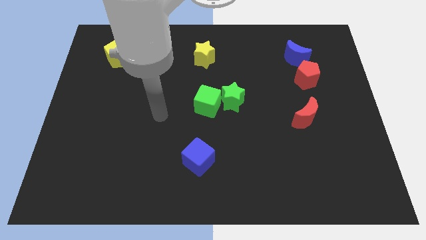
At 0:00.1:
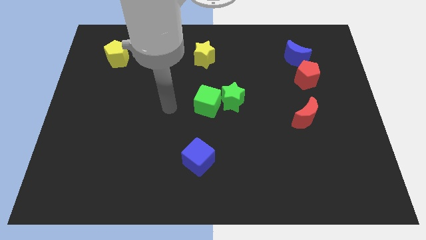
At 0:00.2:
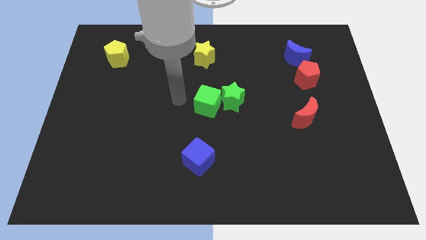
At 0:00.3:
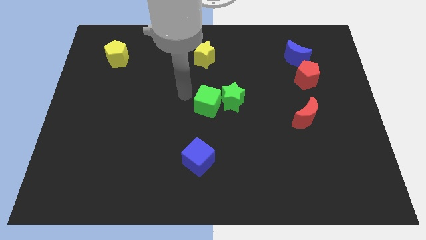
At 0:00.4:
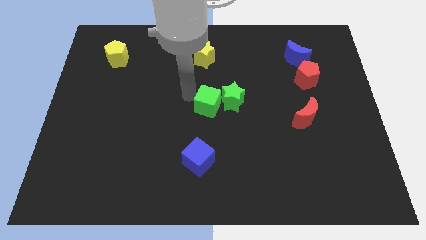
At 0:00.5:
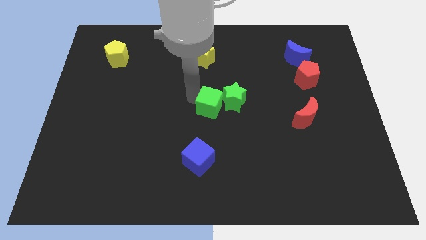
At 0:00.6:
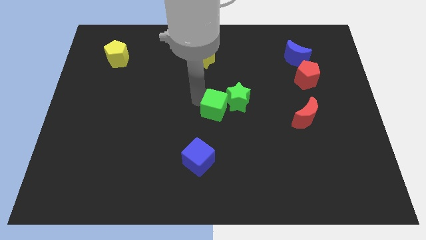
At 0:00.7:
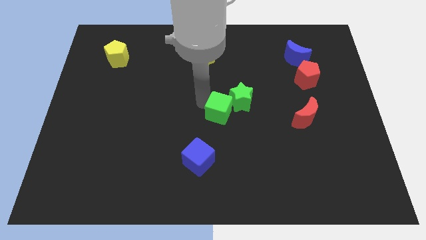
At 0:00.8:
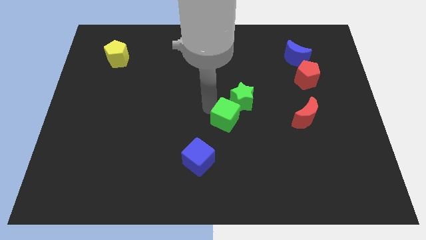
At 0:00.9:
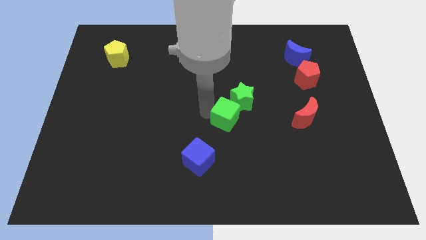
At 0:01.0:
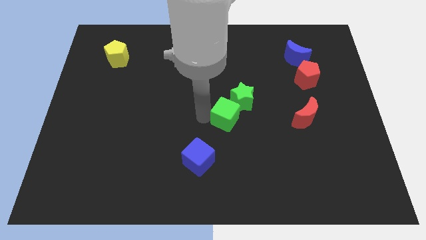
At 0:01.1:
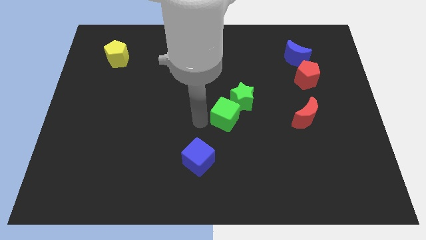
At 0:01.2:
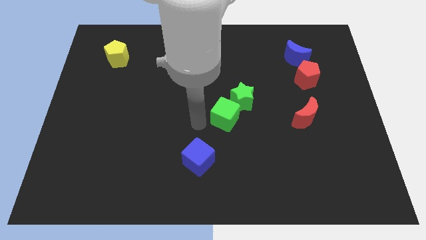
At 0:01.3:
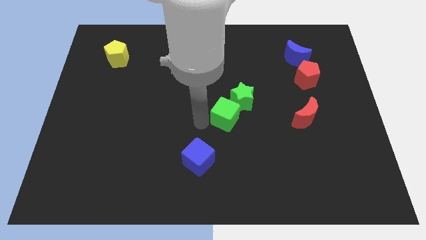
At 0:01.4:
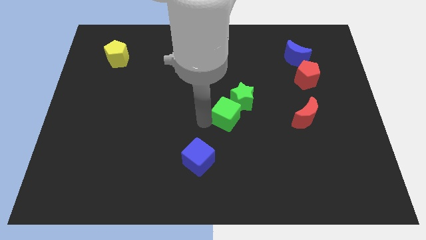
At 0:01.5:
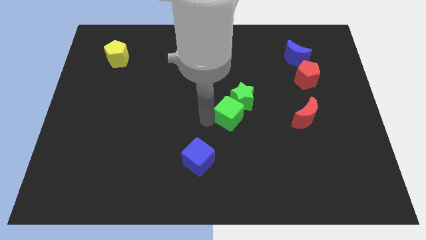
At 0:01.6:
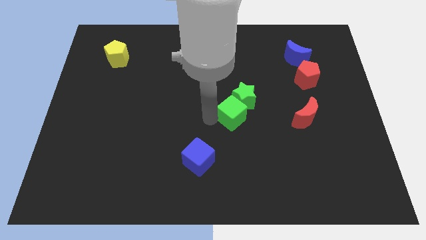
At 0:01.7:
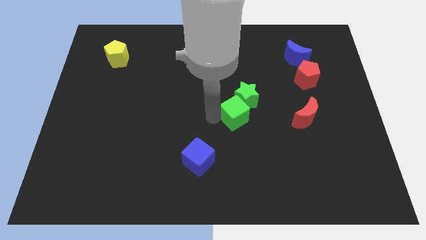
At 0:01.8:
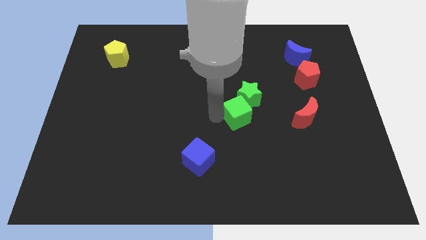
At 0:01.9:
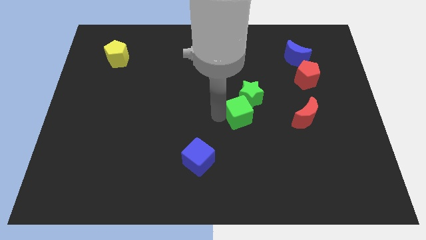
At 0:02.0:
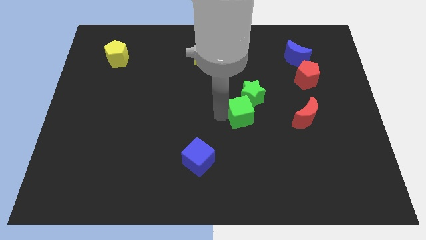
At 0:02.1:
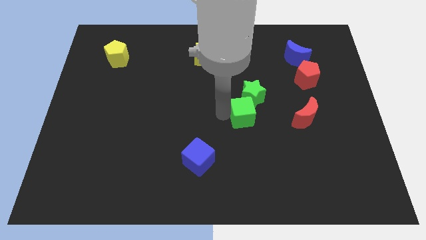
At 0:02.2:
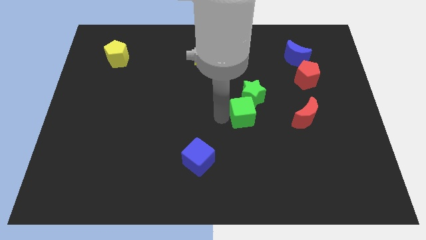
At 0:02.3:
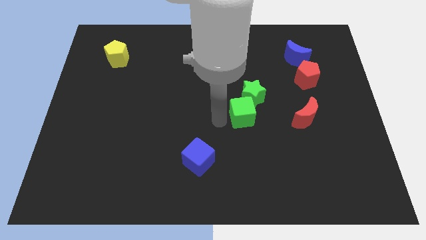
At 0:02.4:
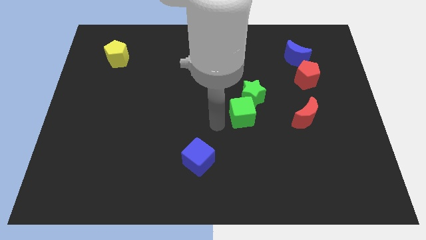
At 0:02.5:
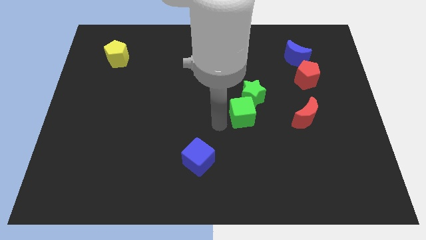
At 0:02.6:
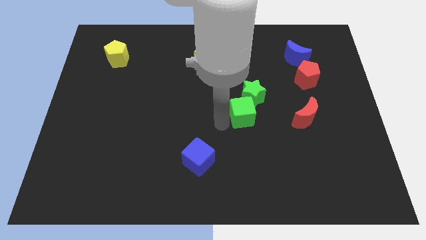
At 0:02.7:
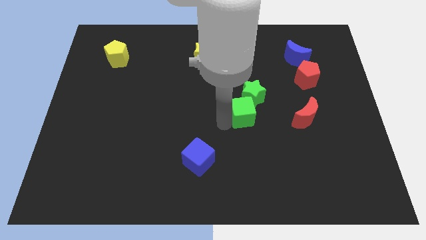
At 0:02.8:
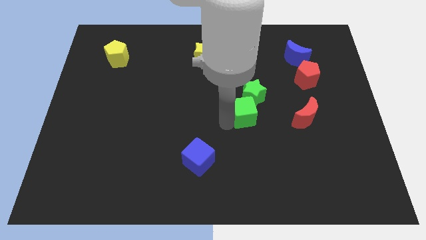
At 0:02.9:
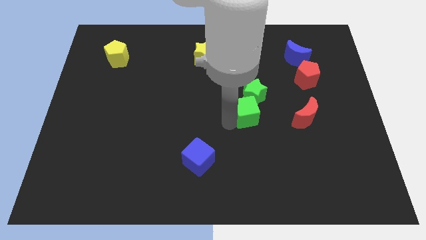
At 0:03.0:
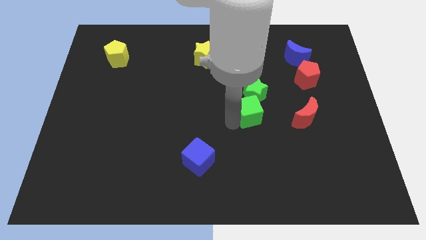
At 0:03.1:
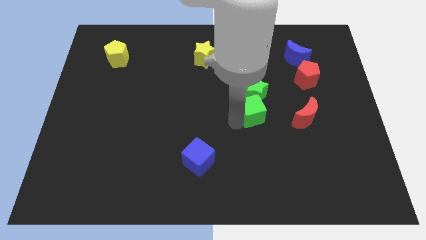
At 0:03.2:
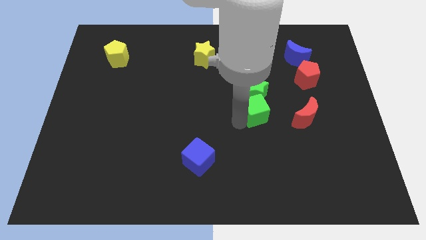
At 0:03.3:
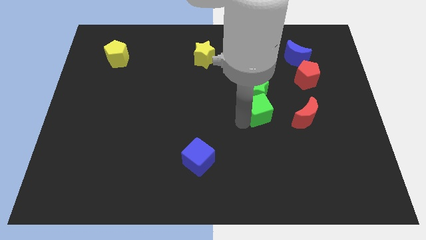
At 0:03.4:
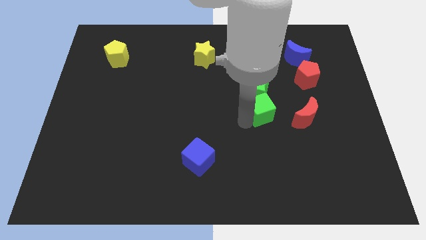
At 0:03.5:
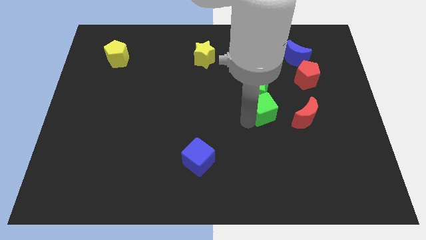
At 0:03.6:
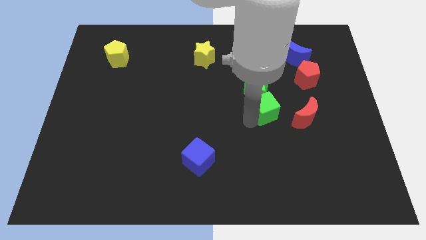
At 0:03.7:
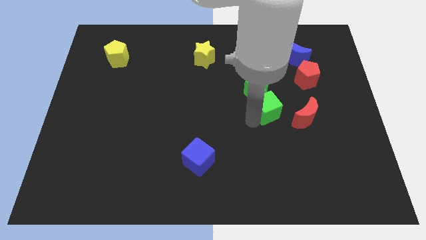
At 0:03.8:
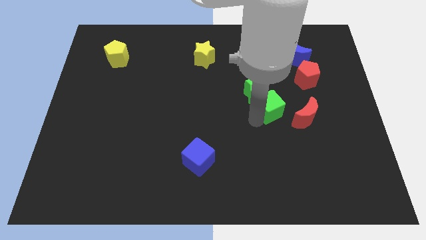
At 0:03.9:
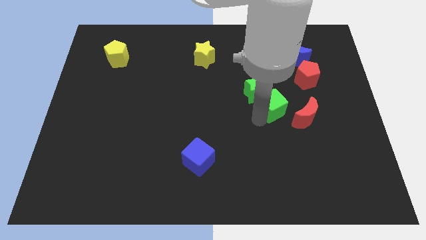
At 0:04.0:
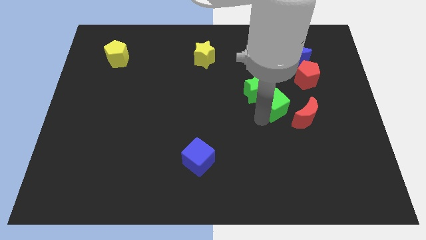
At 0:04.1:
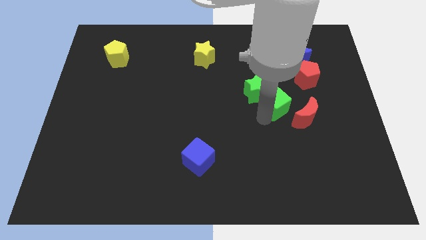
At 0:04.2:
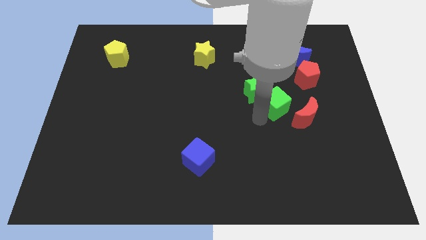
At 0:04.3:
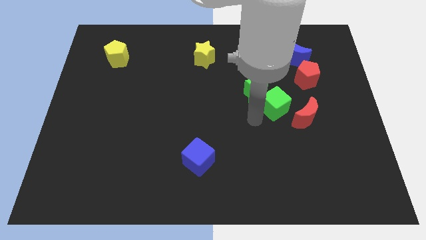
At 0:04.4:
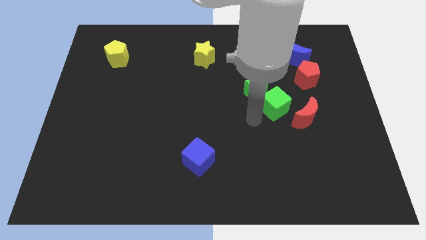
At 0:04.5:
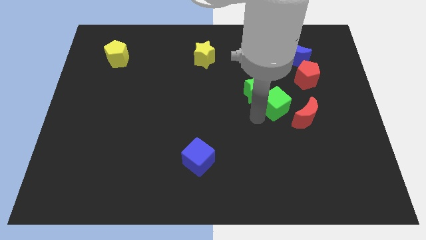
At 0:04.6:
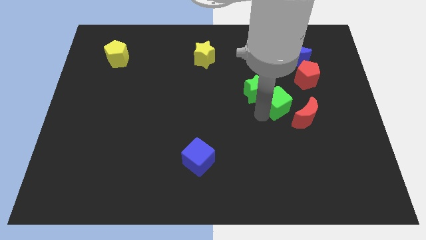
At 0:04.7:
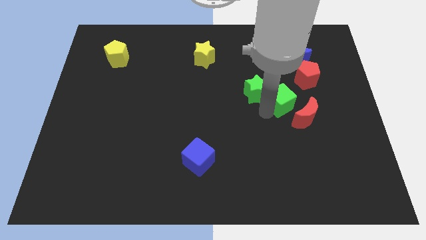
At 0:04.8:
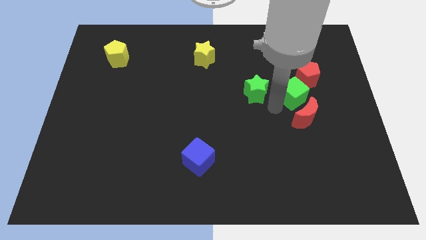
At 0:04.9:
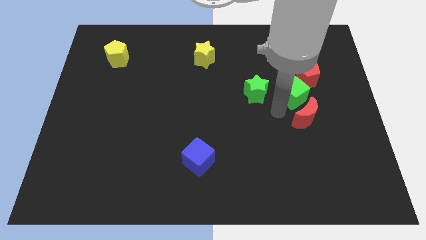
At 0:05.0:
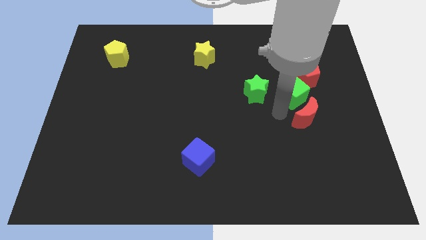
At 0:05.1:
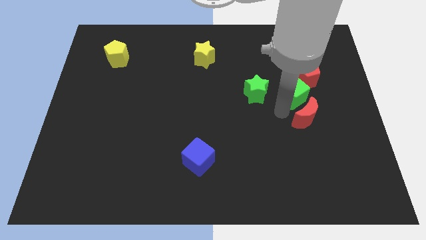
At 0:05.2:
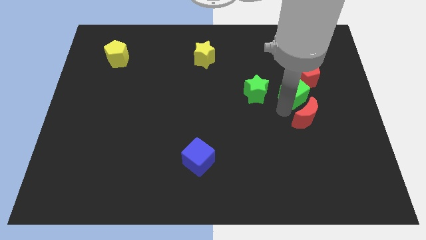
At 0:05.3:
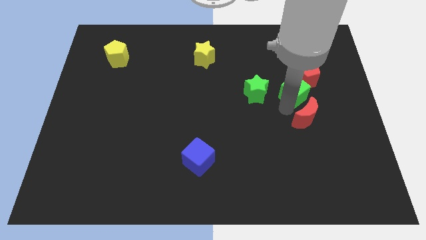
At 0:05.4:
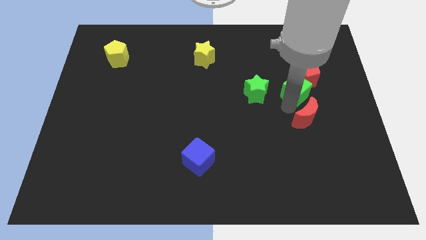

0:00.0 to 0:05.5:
slide the green cube towards the red pentagon

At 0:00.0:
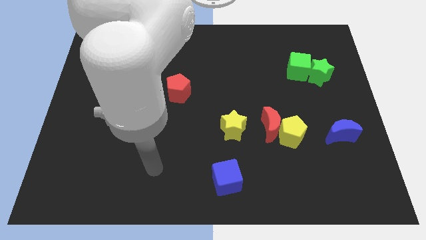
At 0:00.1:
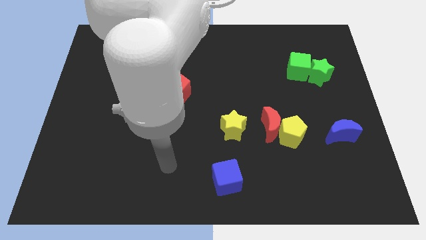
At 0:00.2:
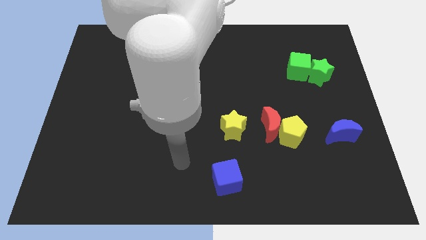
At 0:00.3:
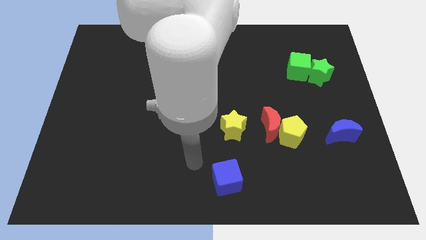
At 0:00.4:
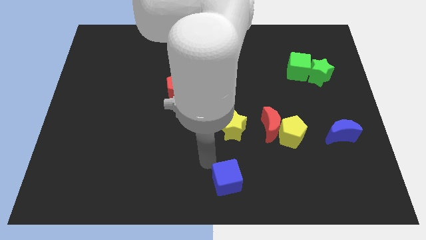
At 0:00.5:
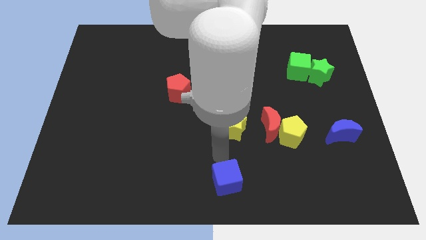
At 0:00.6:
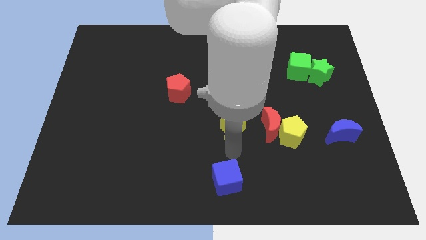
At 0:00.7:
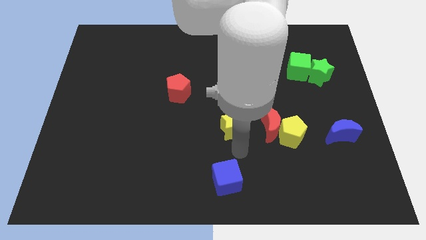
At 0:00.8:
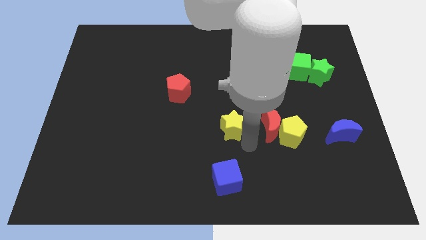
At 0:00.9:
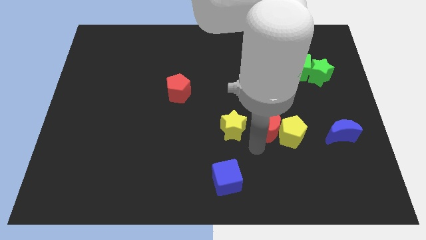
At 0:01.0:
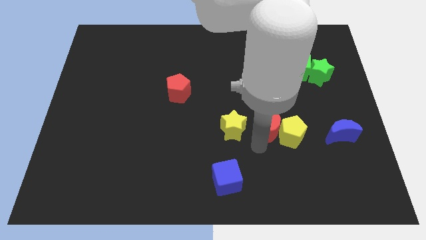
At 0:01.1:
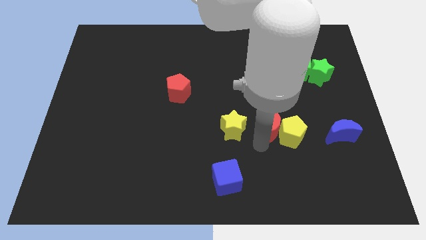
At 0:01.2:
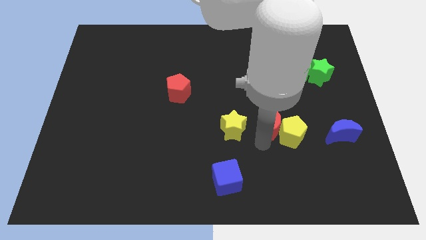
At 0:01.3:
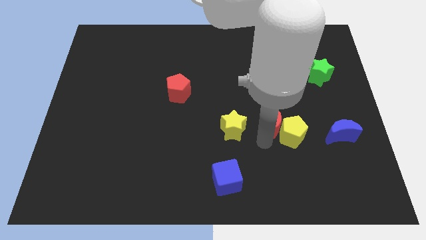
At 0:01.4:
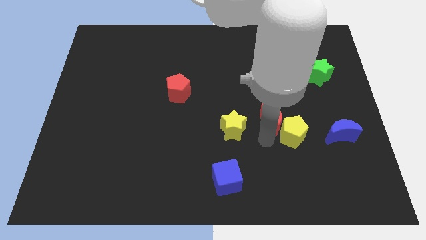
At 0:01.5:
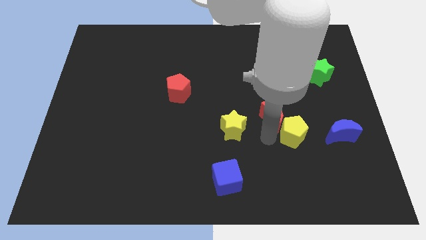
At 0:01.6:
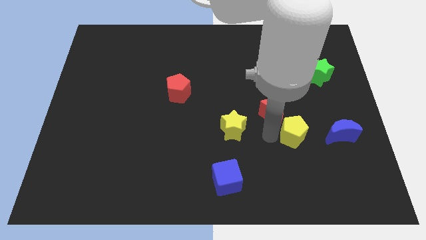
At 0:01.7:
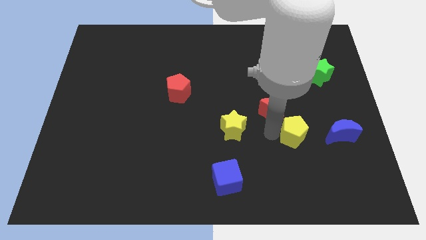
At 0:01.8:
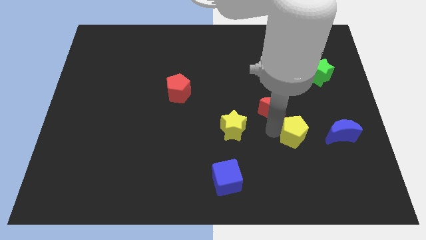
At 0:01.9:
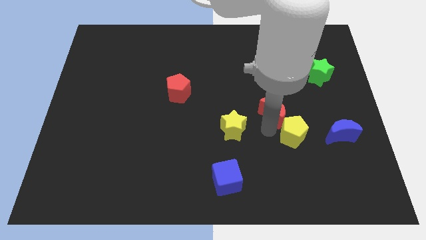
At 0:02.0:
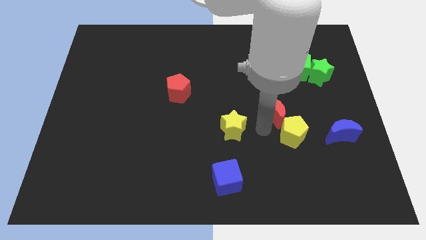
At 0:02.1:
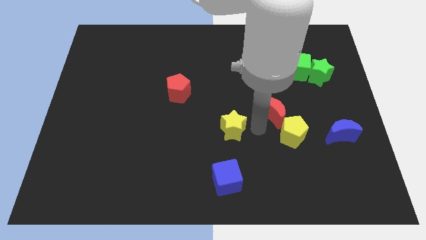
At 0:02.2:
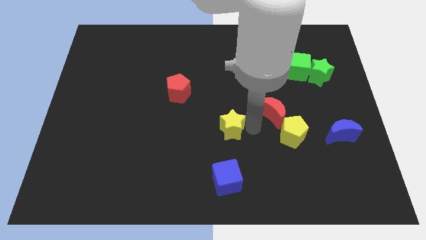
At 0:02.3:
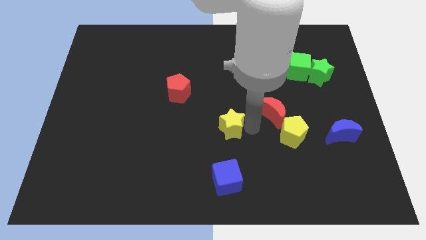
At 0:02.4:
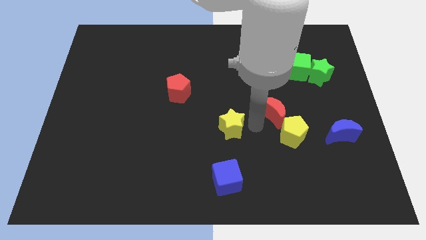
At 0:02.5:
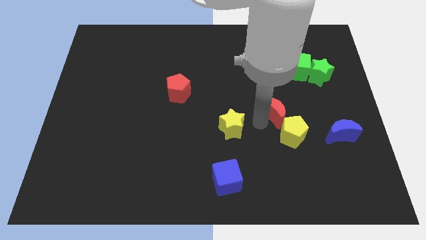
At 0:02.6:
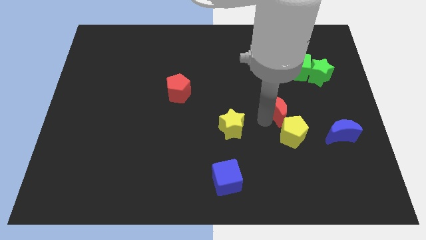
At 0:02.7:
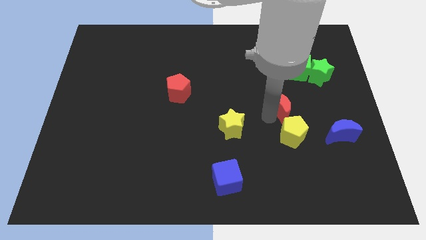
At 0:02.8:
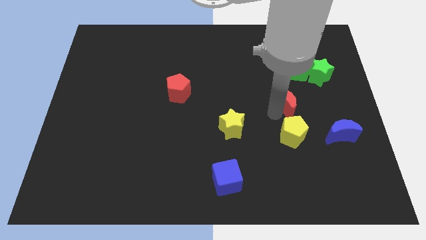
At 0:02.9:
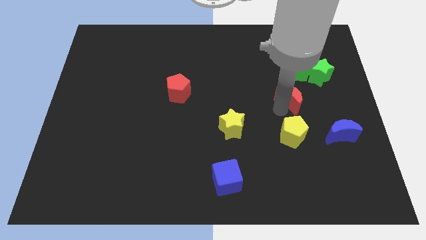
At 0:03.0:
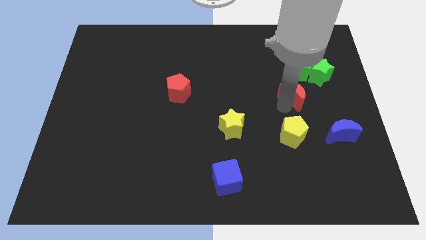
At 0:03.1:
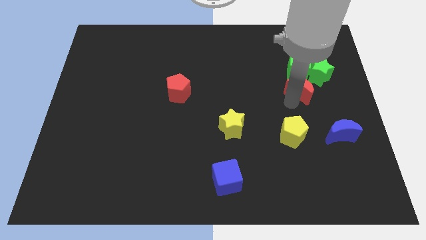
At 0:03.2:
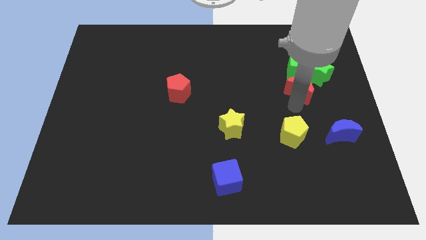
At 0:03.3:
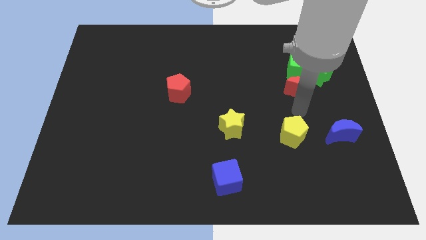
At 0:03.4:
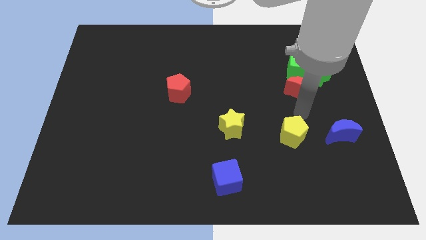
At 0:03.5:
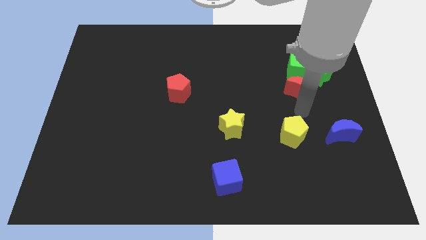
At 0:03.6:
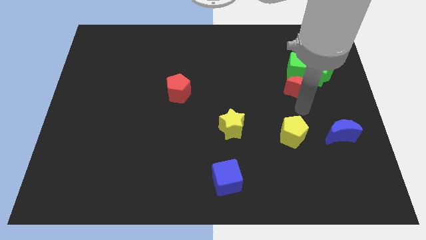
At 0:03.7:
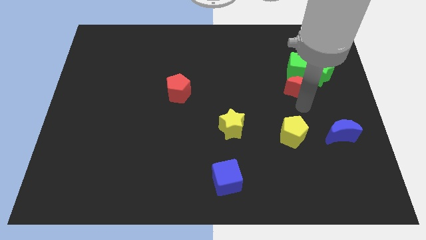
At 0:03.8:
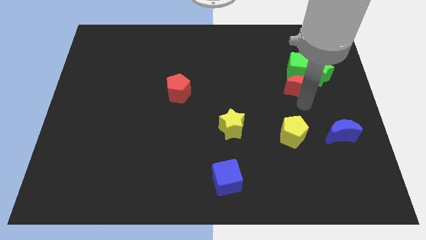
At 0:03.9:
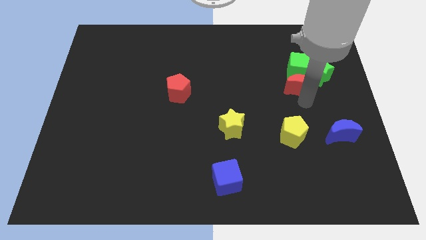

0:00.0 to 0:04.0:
push the red moon to the green cube
